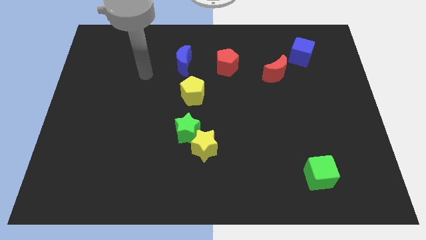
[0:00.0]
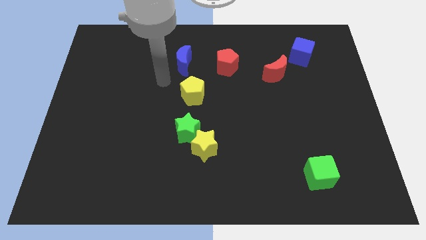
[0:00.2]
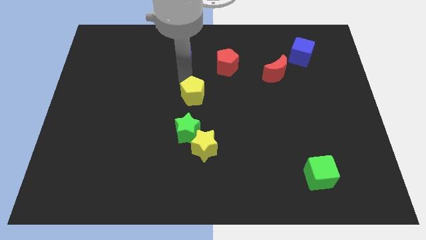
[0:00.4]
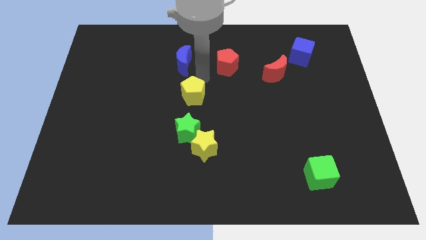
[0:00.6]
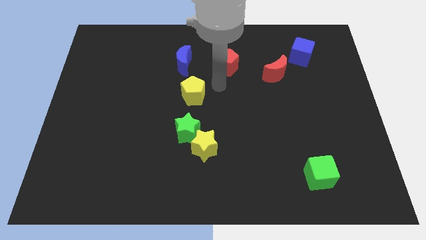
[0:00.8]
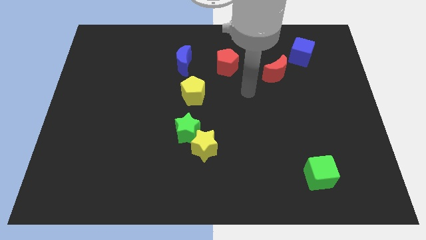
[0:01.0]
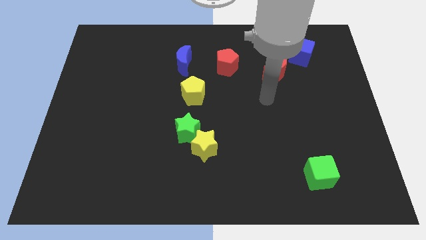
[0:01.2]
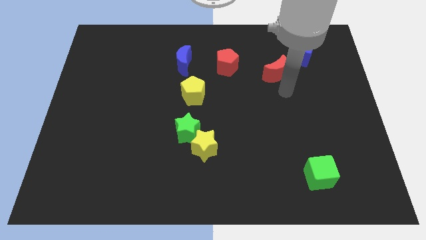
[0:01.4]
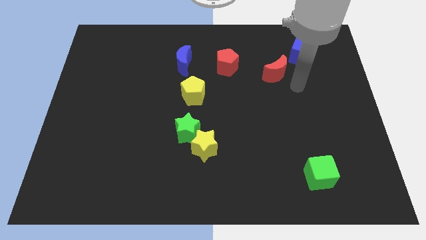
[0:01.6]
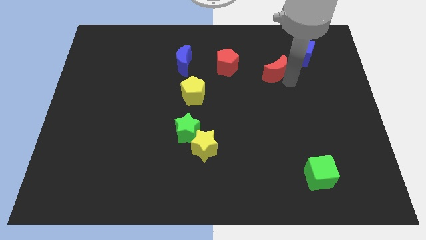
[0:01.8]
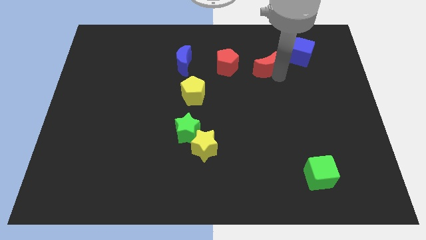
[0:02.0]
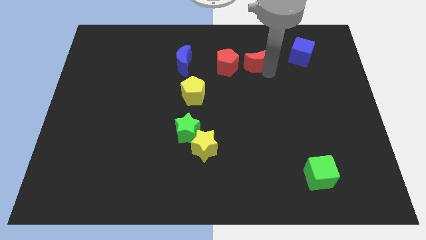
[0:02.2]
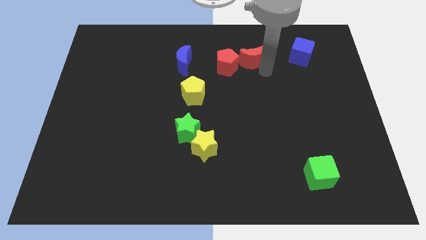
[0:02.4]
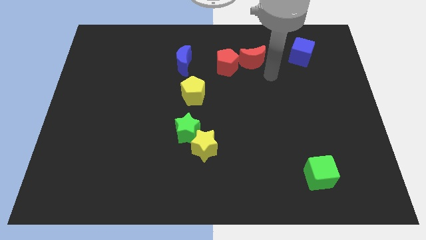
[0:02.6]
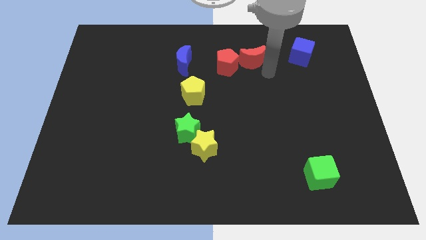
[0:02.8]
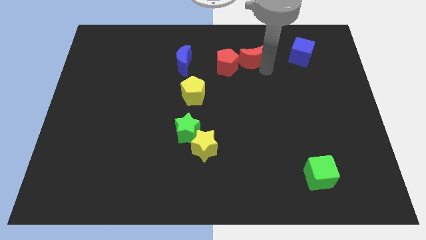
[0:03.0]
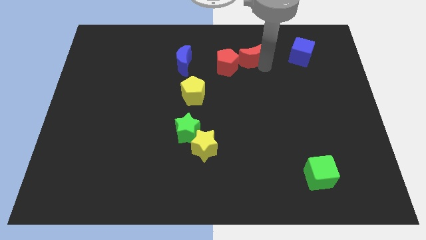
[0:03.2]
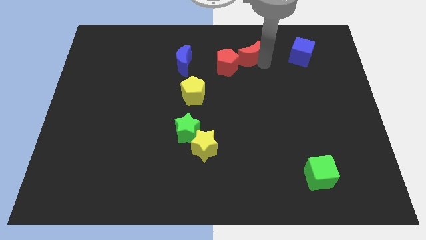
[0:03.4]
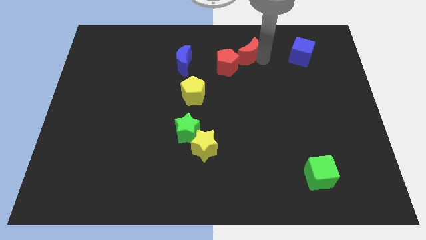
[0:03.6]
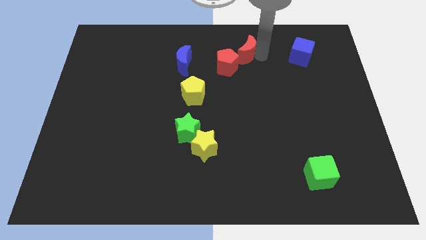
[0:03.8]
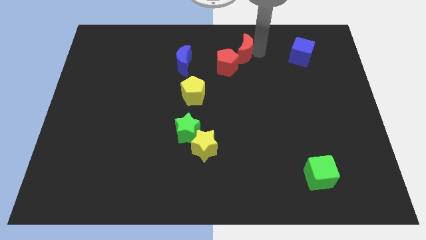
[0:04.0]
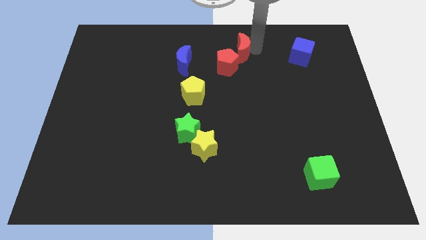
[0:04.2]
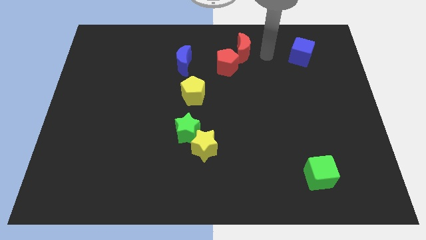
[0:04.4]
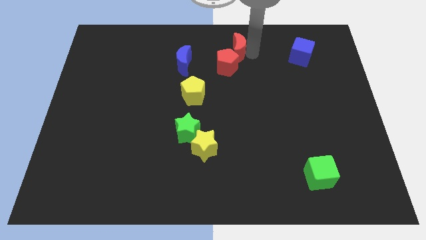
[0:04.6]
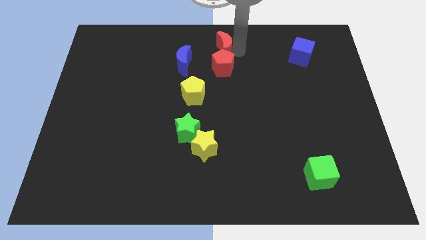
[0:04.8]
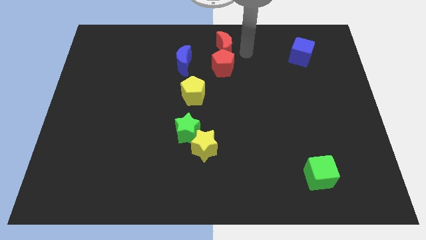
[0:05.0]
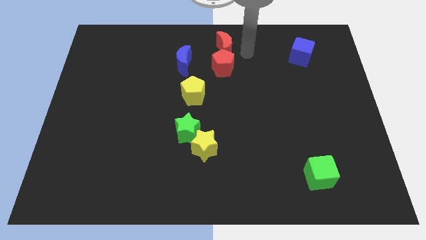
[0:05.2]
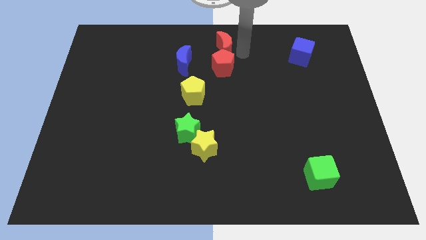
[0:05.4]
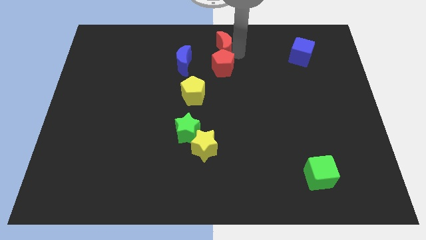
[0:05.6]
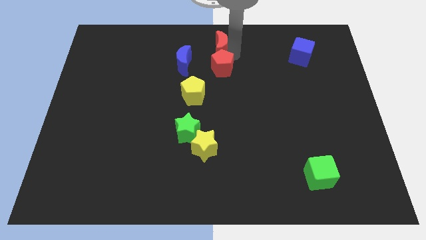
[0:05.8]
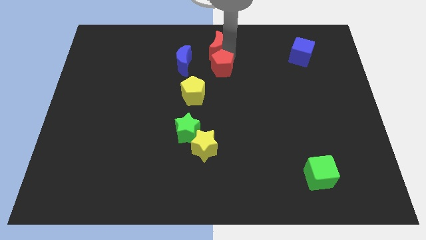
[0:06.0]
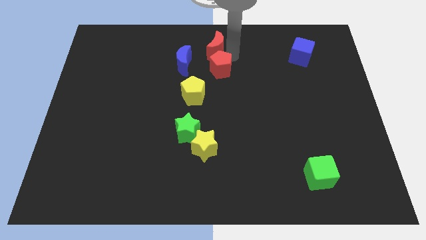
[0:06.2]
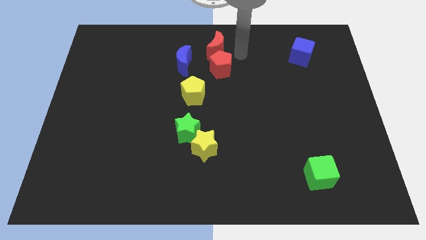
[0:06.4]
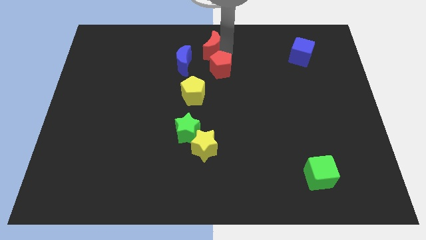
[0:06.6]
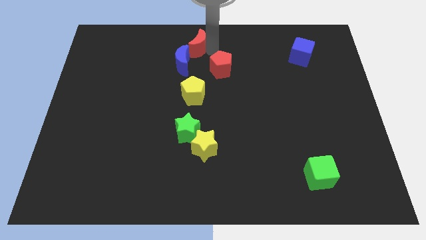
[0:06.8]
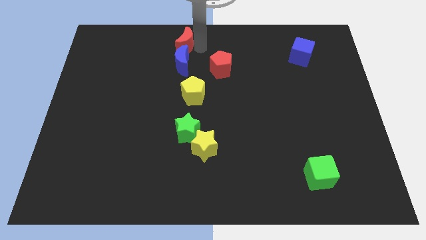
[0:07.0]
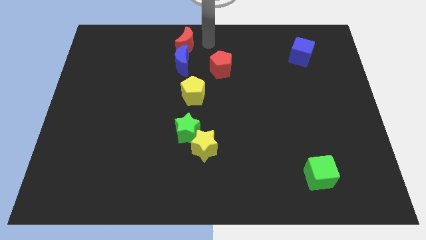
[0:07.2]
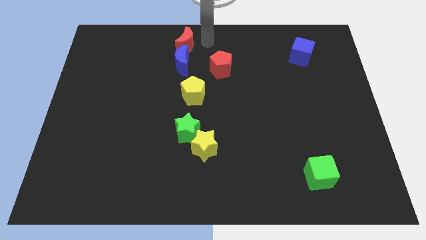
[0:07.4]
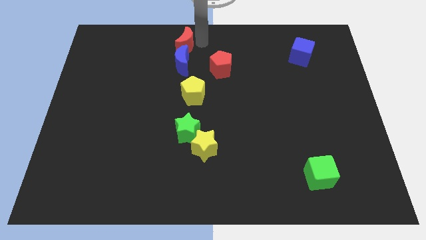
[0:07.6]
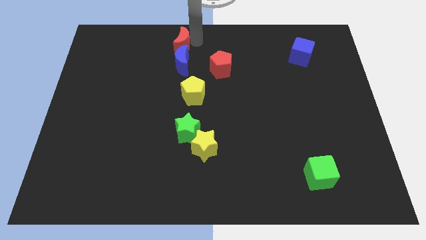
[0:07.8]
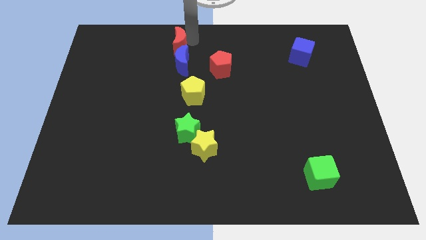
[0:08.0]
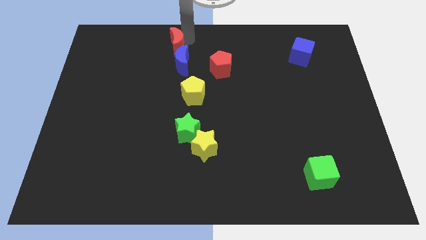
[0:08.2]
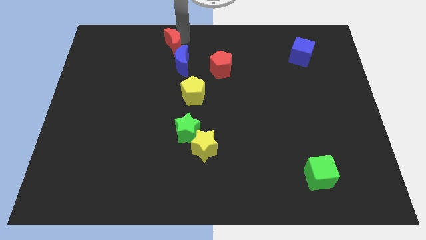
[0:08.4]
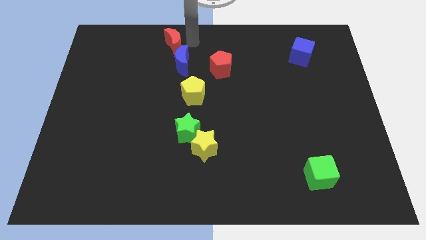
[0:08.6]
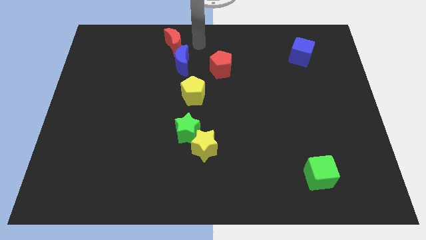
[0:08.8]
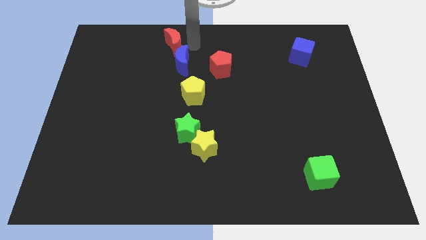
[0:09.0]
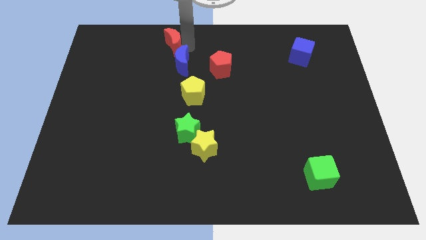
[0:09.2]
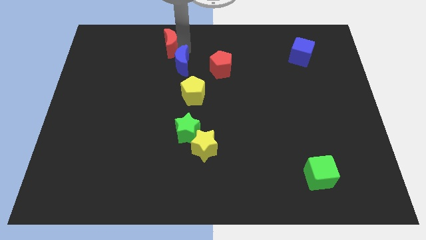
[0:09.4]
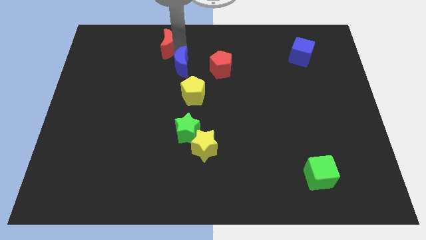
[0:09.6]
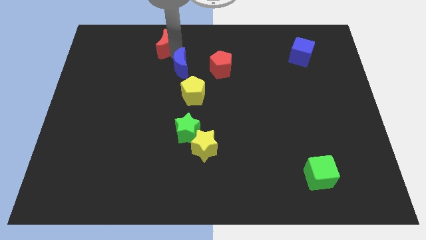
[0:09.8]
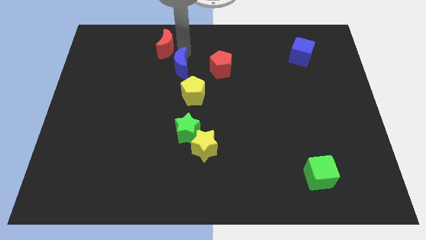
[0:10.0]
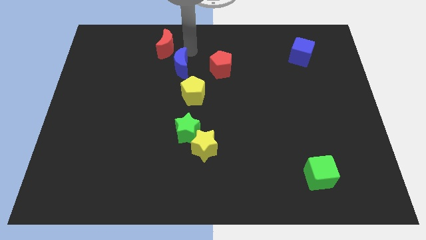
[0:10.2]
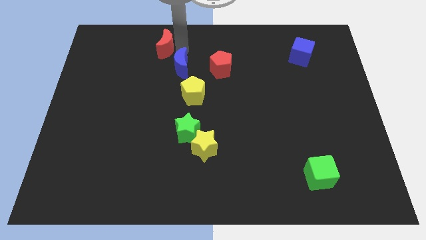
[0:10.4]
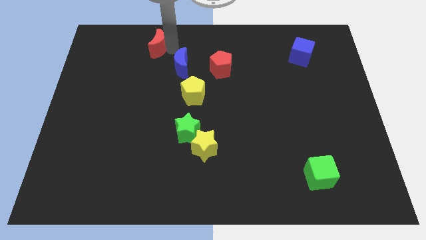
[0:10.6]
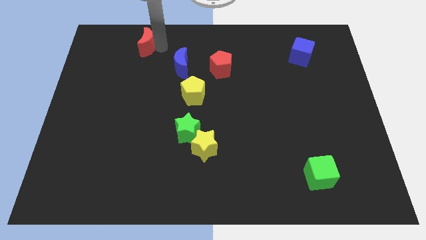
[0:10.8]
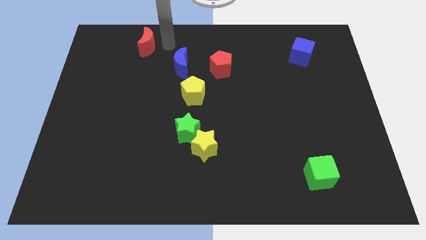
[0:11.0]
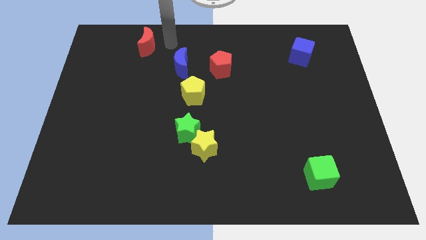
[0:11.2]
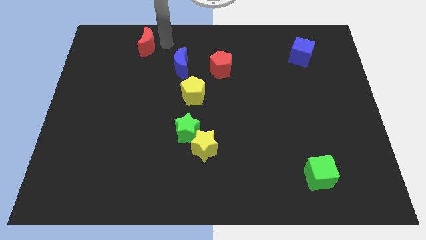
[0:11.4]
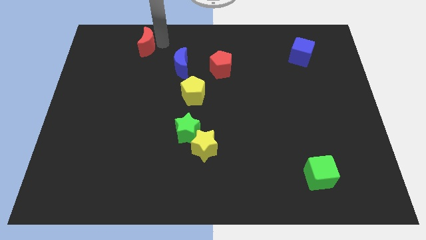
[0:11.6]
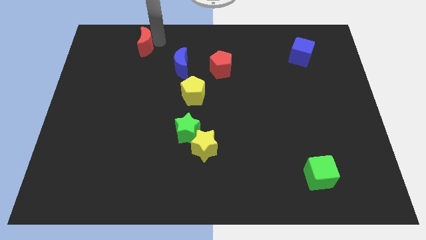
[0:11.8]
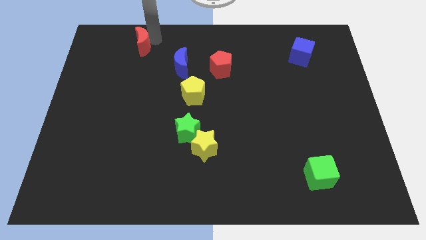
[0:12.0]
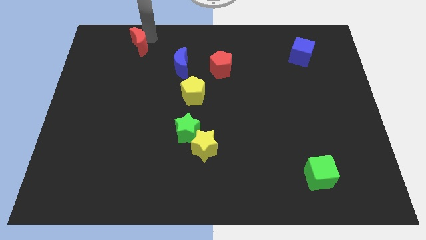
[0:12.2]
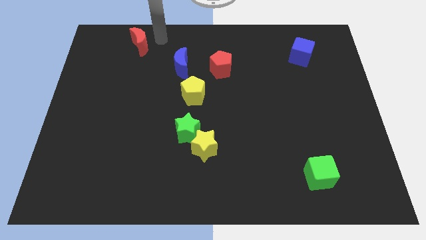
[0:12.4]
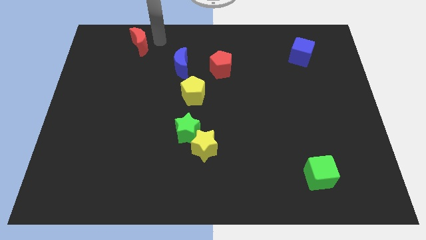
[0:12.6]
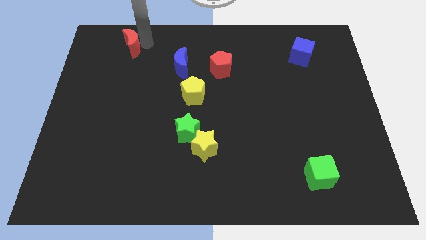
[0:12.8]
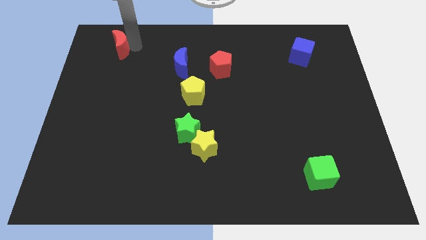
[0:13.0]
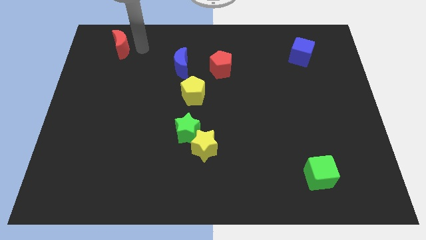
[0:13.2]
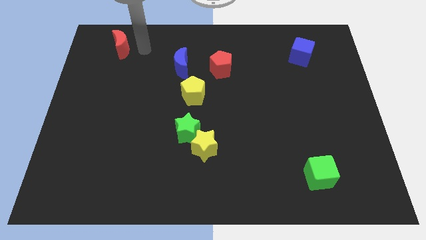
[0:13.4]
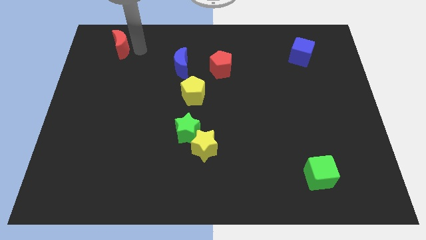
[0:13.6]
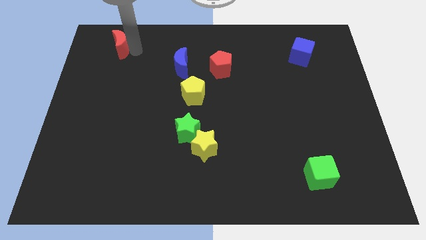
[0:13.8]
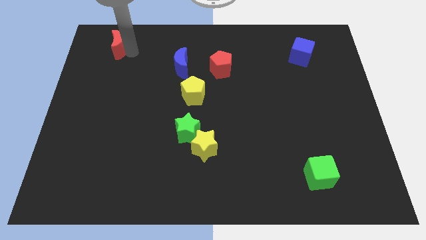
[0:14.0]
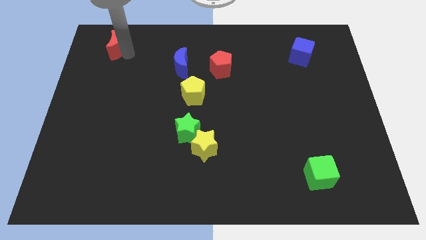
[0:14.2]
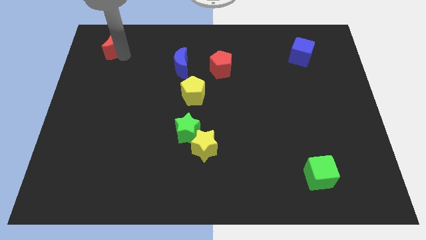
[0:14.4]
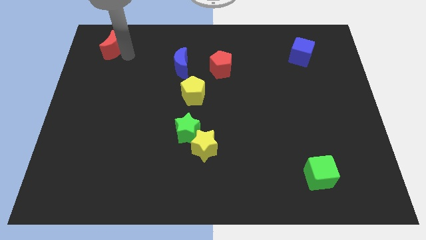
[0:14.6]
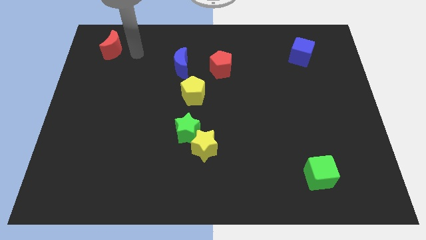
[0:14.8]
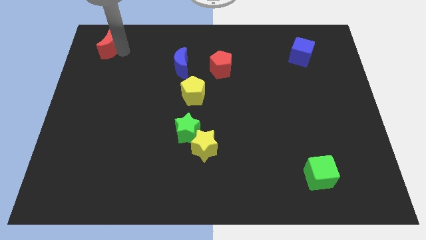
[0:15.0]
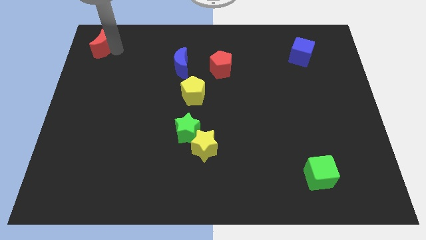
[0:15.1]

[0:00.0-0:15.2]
move the red moon to the top left corner
